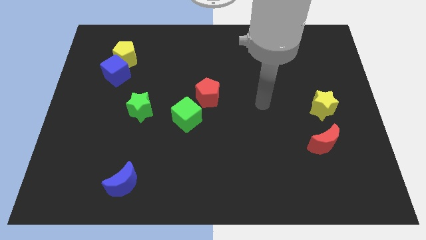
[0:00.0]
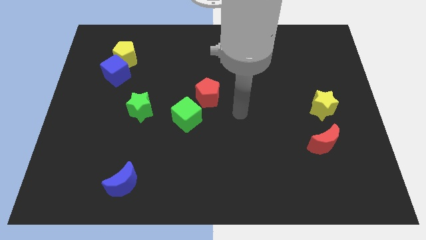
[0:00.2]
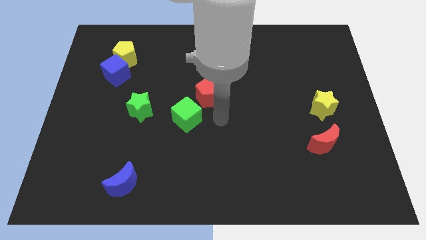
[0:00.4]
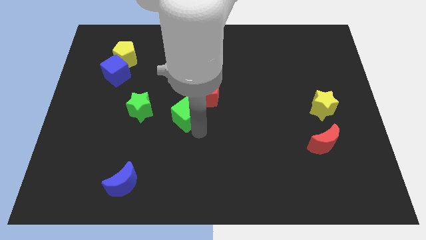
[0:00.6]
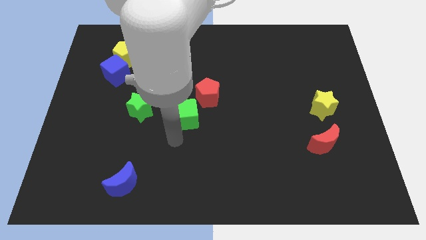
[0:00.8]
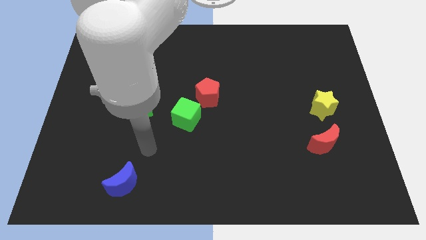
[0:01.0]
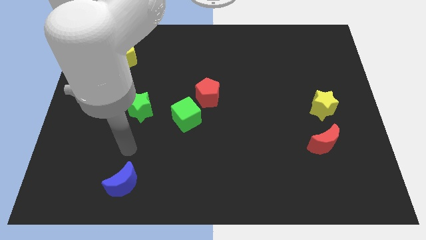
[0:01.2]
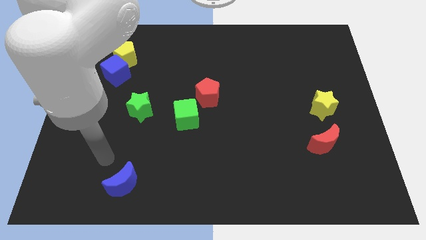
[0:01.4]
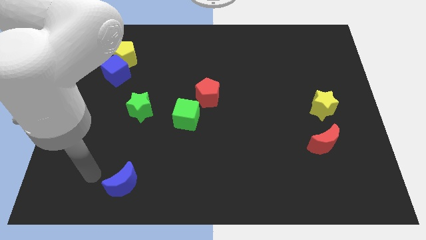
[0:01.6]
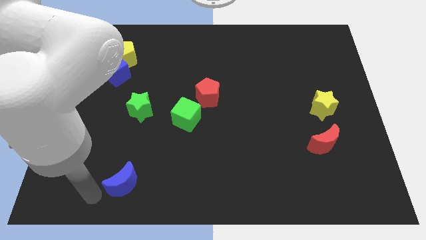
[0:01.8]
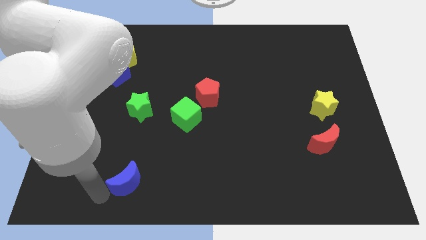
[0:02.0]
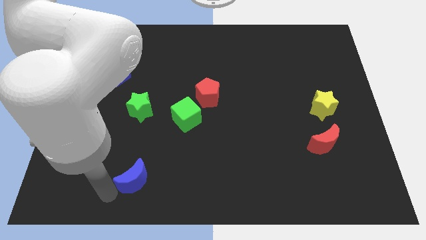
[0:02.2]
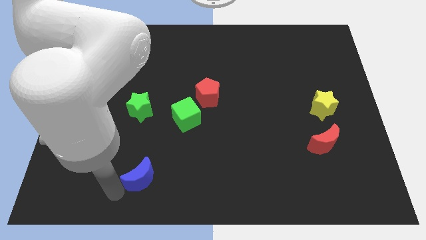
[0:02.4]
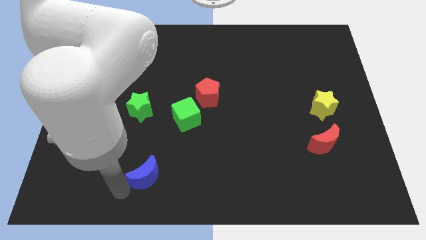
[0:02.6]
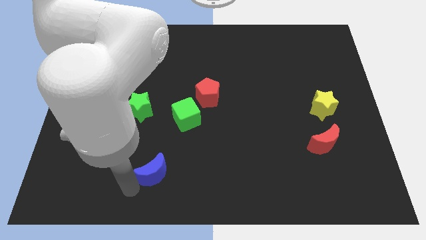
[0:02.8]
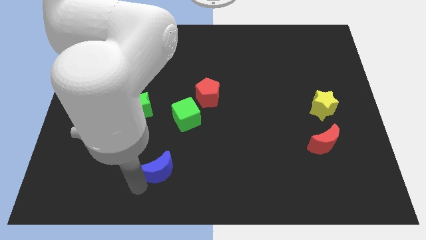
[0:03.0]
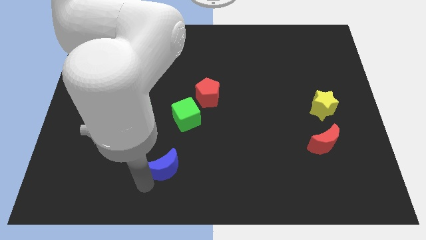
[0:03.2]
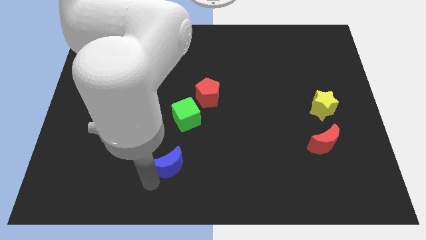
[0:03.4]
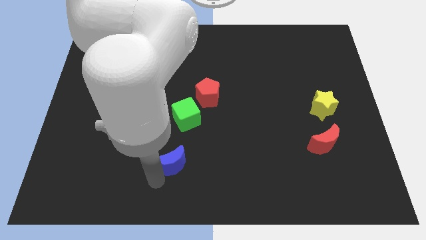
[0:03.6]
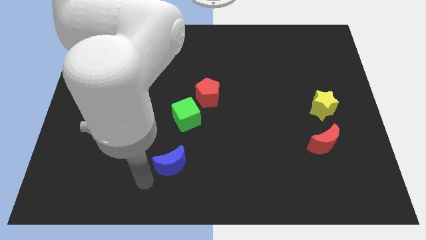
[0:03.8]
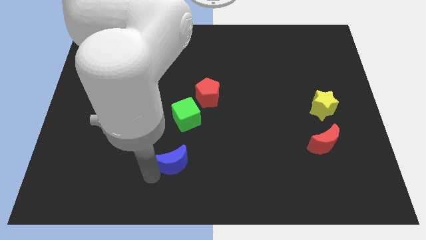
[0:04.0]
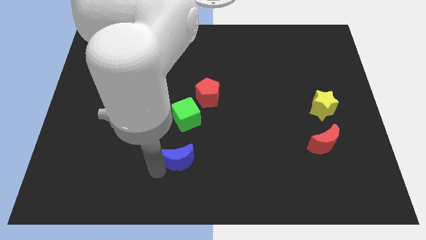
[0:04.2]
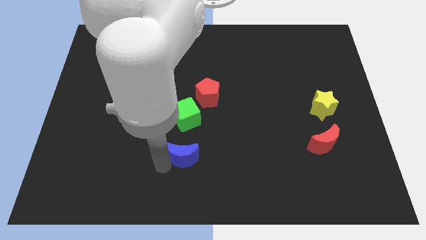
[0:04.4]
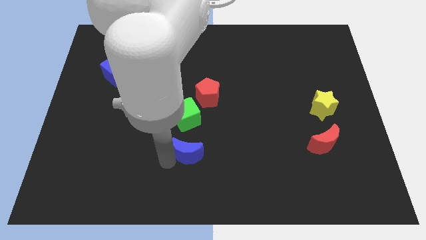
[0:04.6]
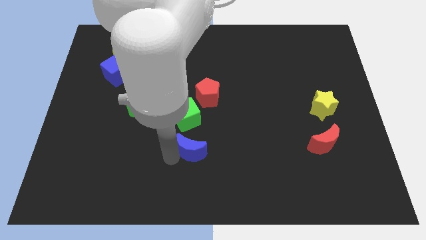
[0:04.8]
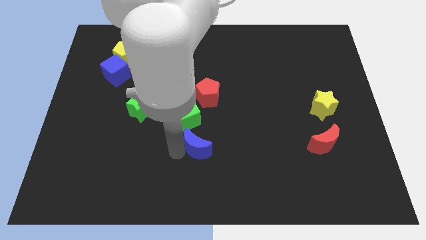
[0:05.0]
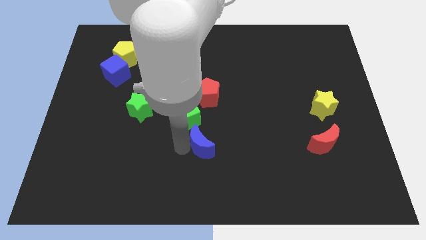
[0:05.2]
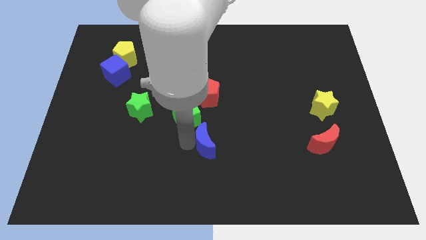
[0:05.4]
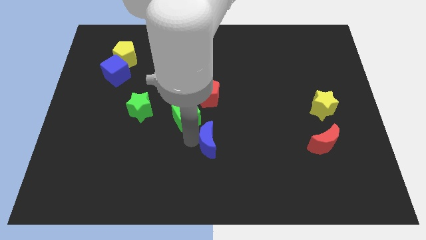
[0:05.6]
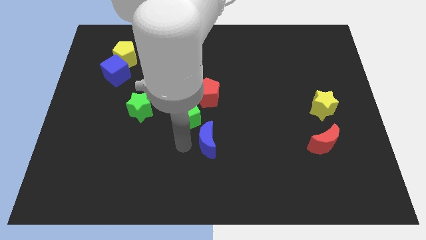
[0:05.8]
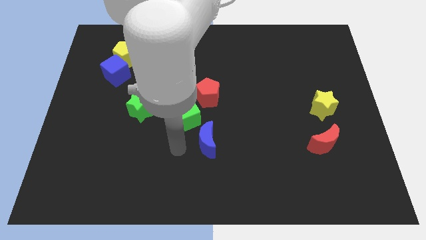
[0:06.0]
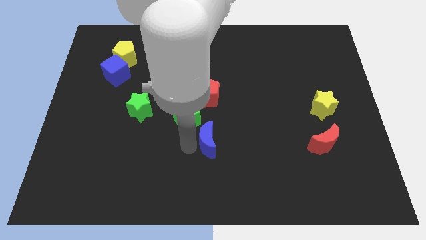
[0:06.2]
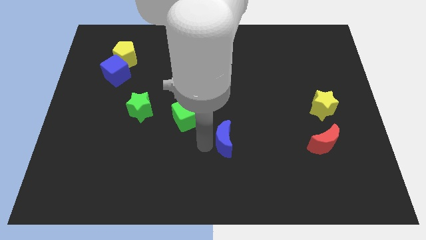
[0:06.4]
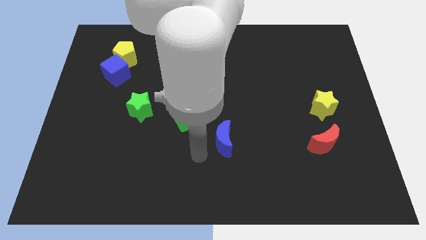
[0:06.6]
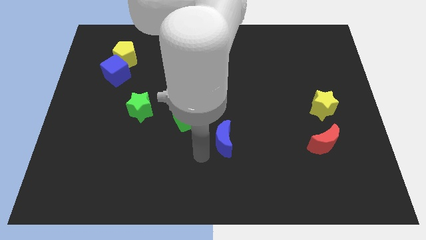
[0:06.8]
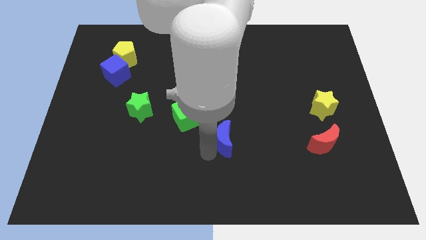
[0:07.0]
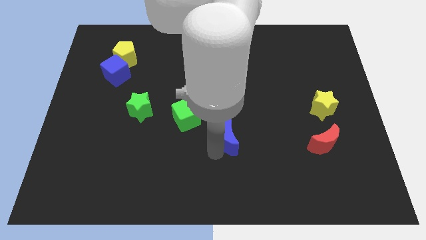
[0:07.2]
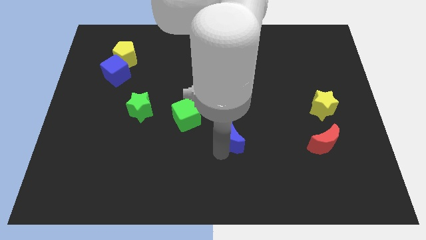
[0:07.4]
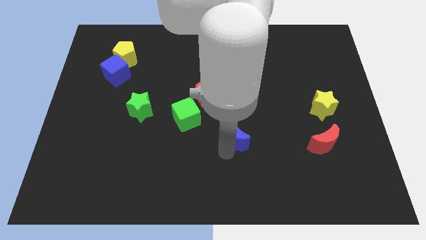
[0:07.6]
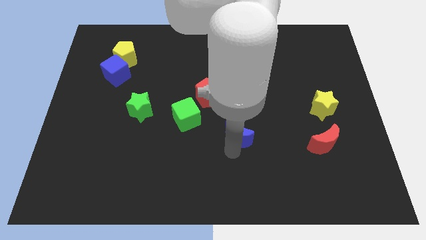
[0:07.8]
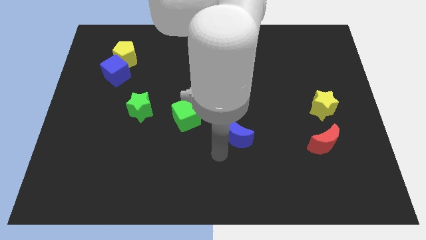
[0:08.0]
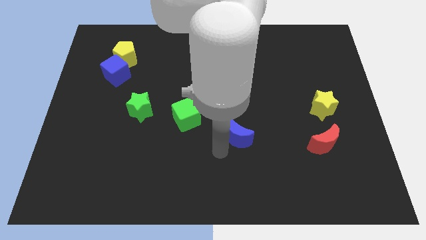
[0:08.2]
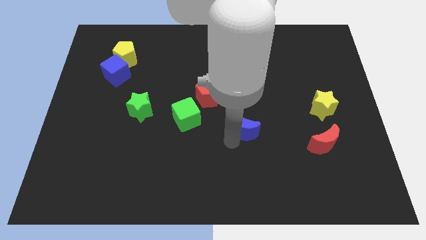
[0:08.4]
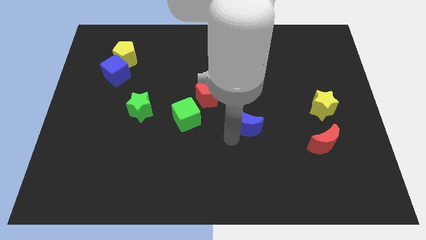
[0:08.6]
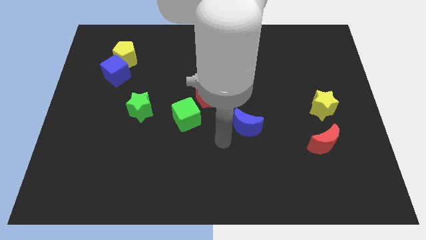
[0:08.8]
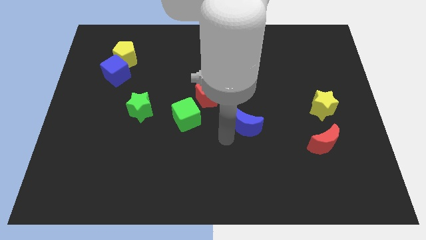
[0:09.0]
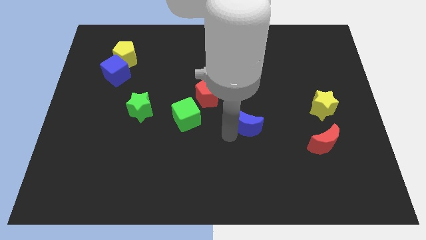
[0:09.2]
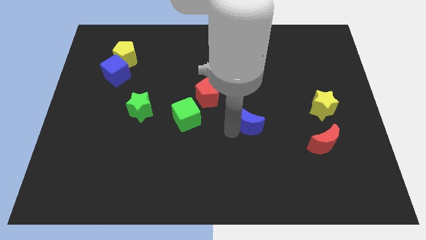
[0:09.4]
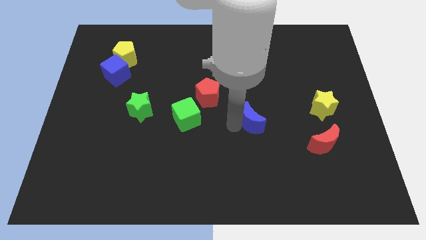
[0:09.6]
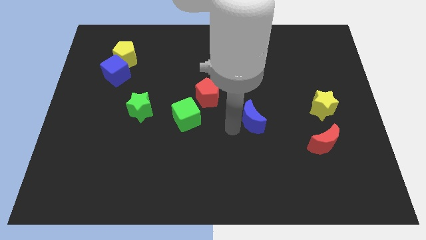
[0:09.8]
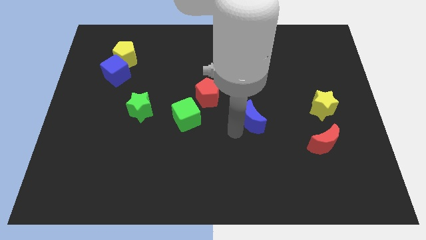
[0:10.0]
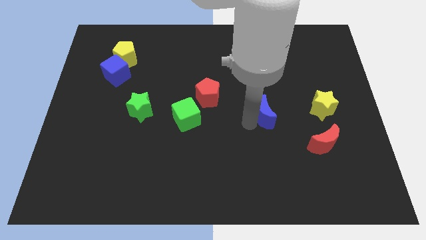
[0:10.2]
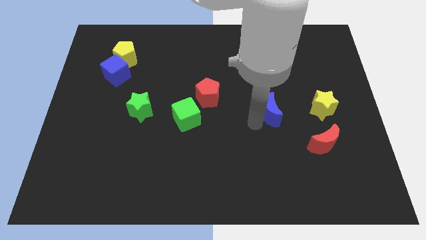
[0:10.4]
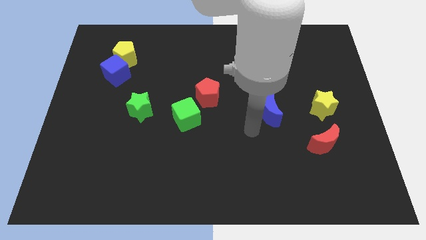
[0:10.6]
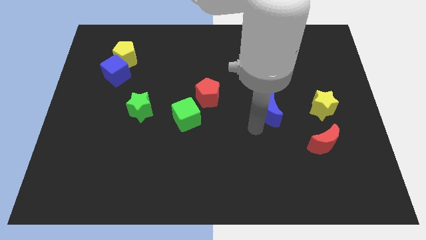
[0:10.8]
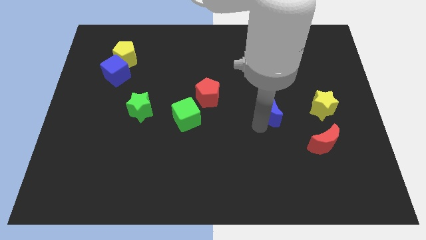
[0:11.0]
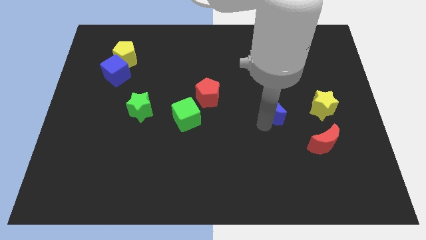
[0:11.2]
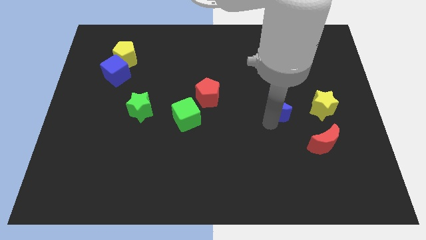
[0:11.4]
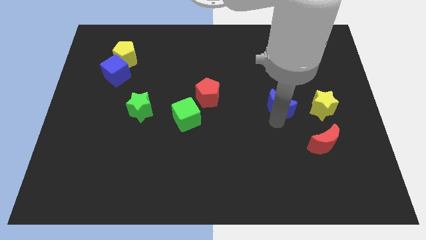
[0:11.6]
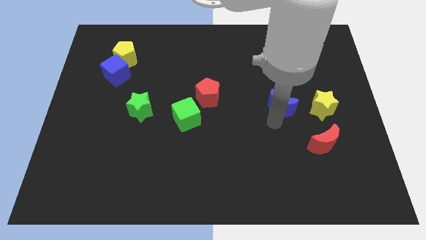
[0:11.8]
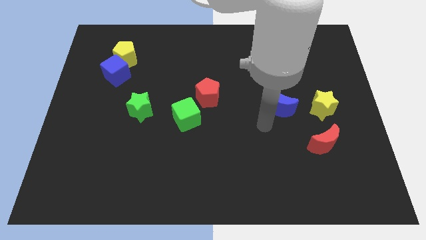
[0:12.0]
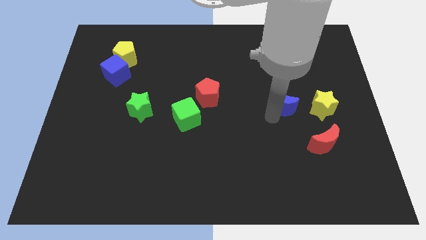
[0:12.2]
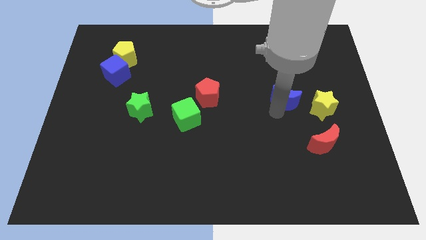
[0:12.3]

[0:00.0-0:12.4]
move the blue moon to the top left of the yellow star

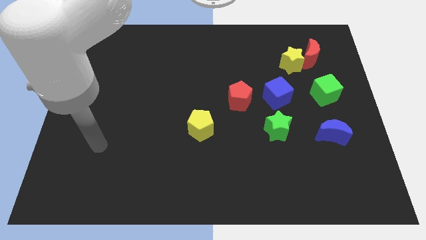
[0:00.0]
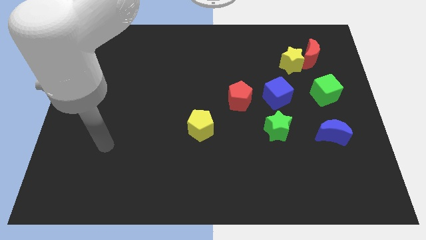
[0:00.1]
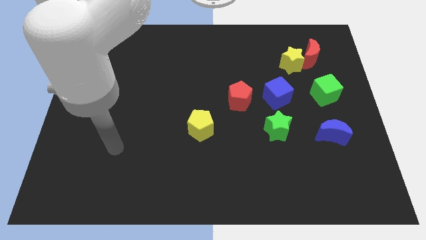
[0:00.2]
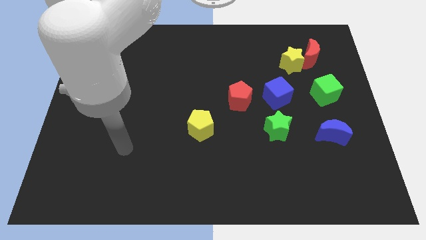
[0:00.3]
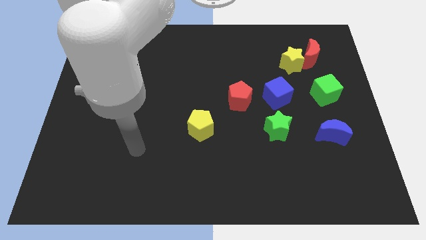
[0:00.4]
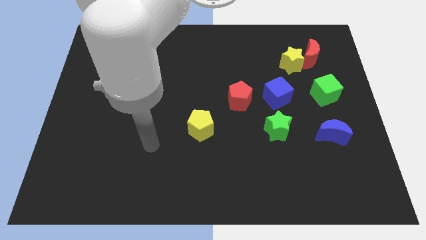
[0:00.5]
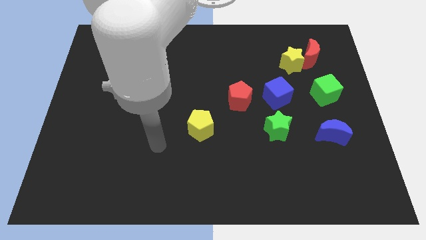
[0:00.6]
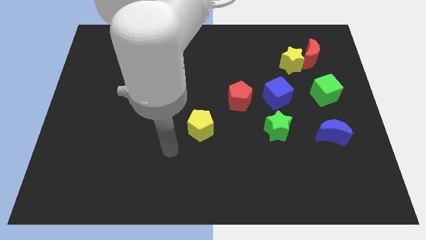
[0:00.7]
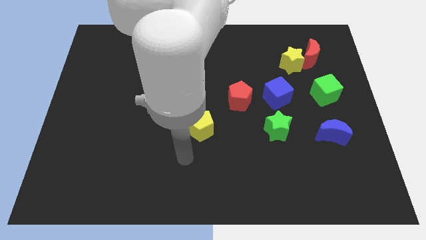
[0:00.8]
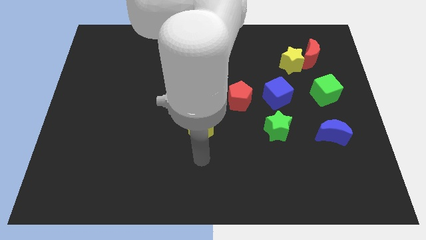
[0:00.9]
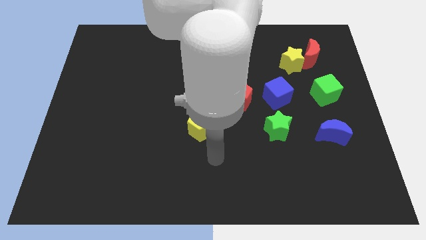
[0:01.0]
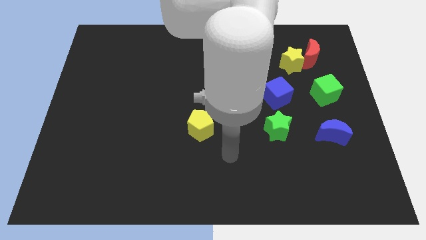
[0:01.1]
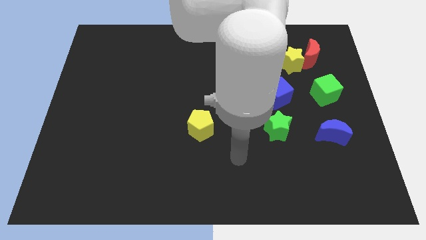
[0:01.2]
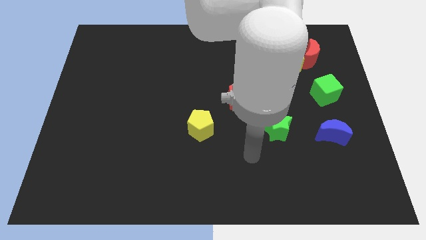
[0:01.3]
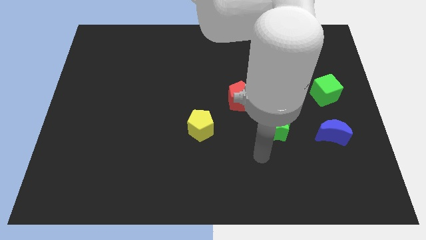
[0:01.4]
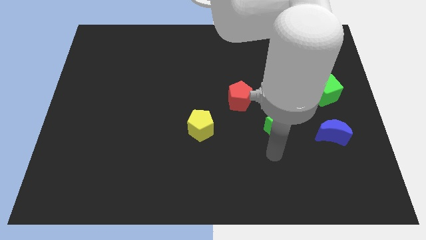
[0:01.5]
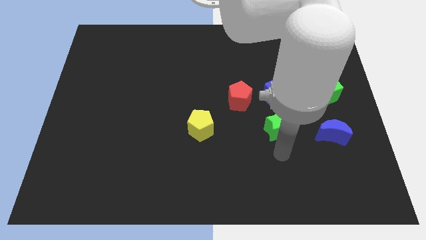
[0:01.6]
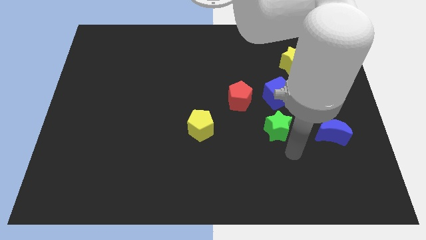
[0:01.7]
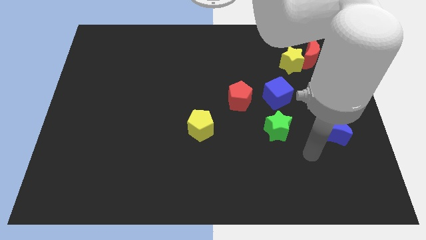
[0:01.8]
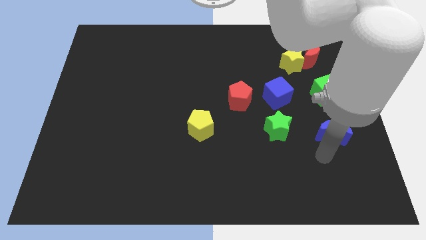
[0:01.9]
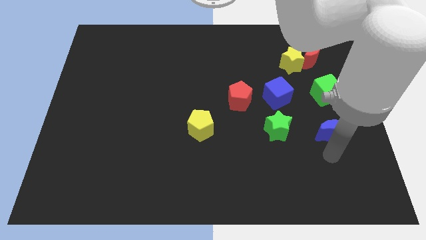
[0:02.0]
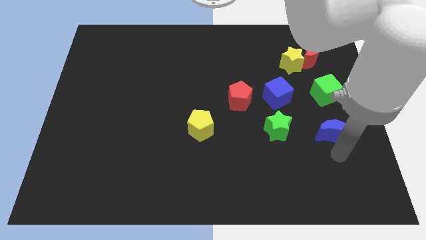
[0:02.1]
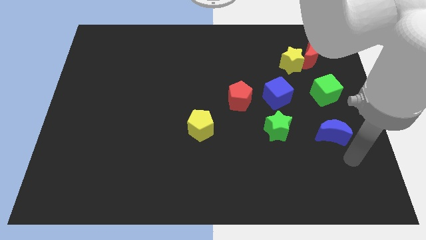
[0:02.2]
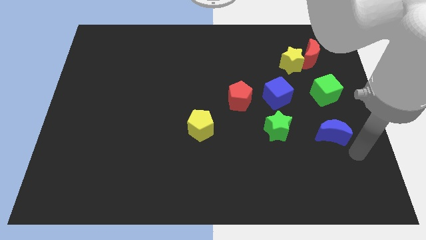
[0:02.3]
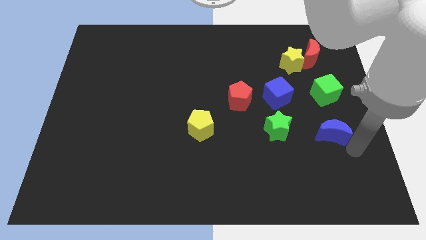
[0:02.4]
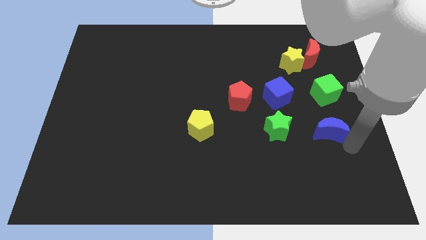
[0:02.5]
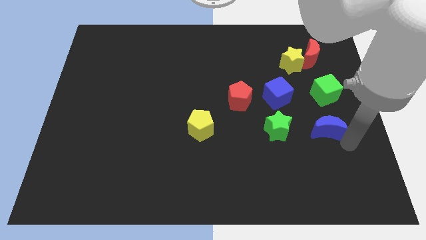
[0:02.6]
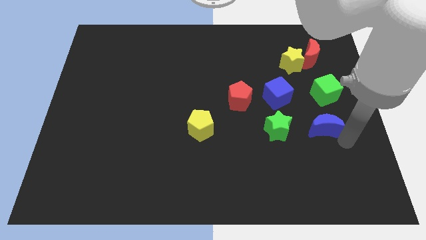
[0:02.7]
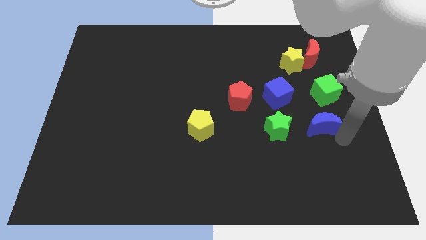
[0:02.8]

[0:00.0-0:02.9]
move the blue moon diagonally down and to the right of the blue cube
